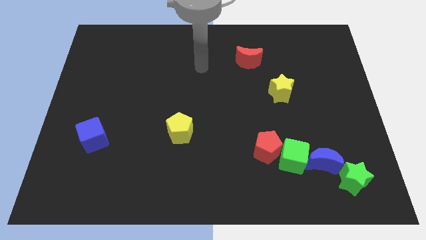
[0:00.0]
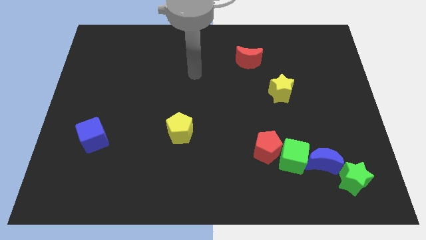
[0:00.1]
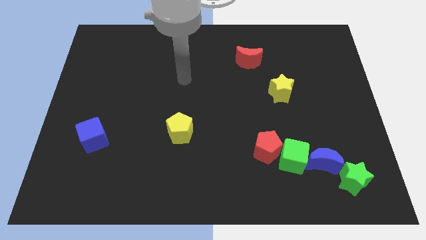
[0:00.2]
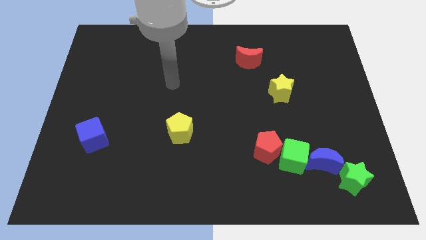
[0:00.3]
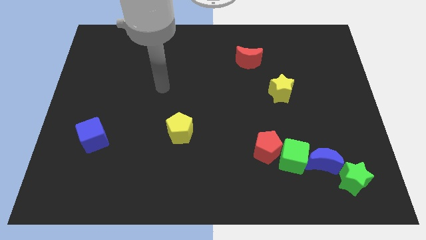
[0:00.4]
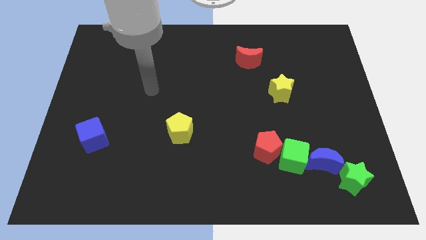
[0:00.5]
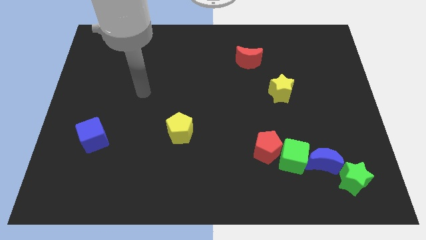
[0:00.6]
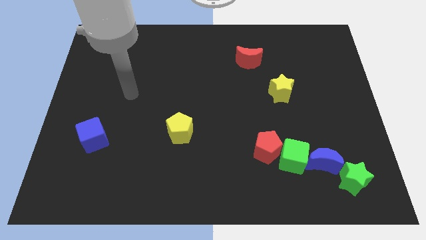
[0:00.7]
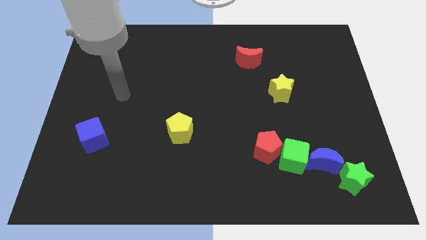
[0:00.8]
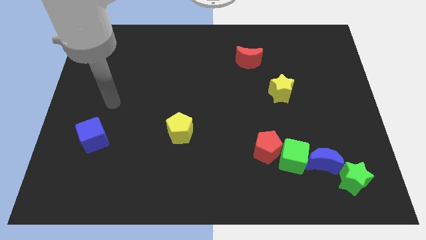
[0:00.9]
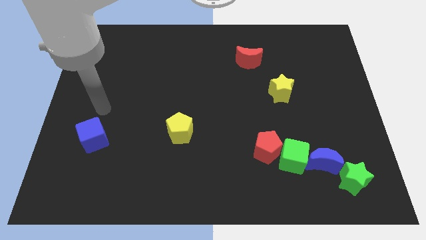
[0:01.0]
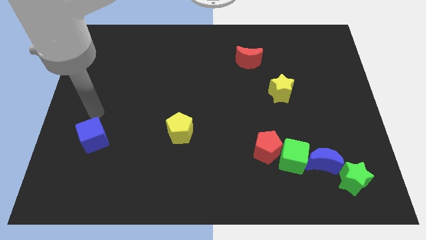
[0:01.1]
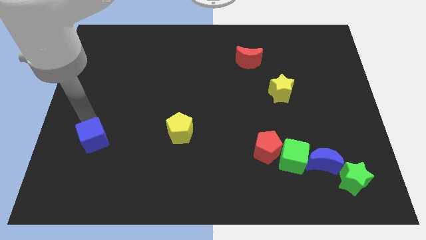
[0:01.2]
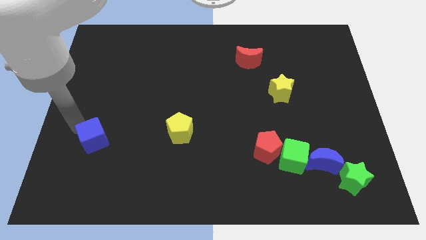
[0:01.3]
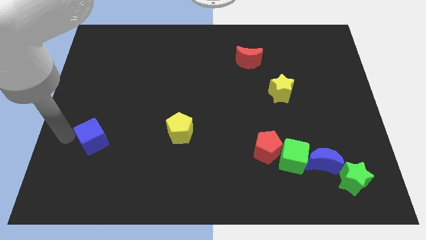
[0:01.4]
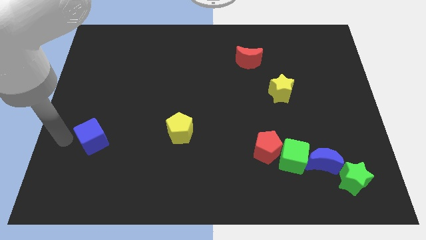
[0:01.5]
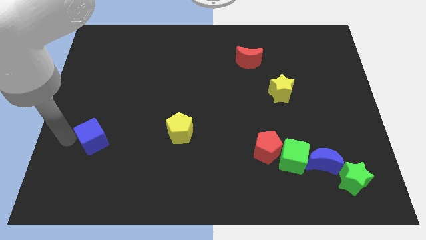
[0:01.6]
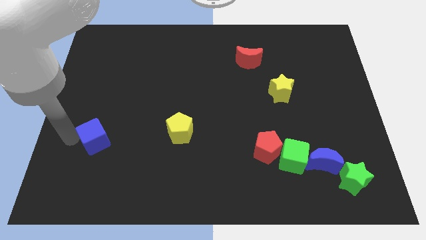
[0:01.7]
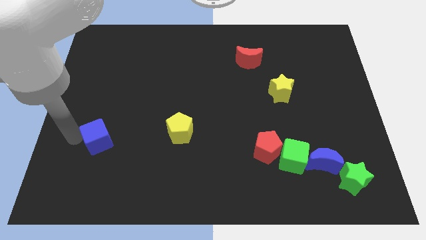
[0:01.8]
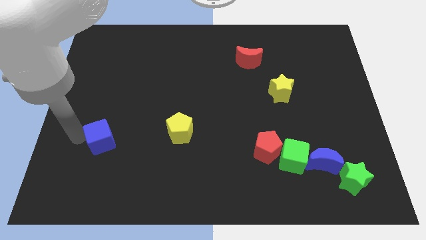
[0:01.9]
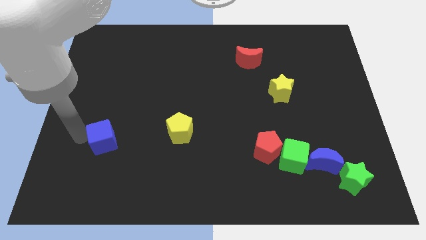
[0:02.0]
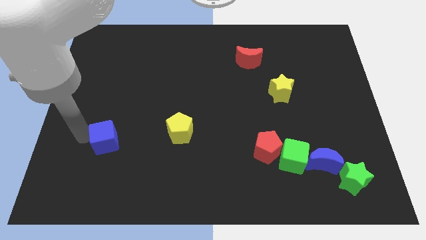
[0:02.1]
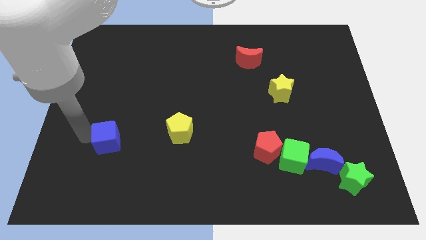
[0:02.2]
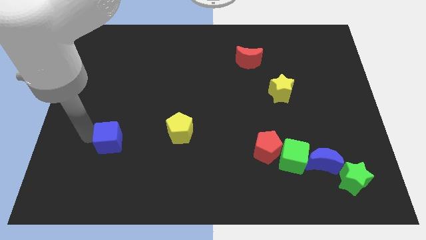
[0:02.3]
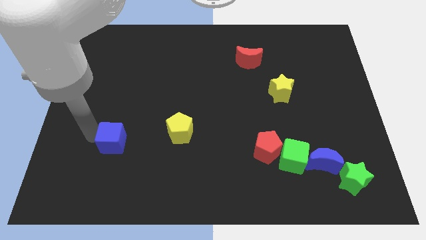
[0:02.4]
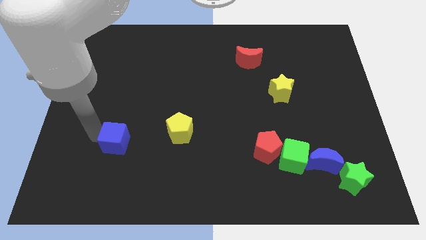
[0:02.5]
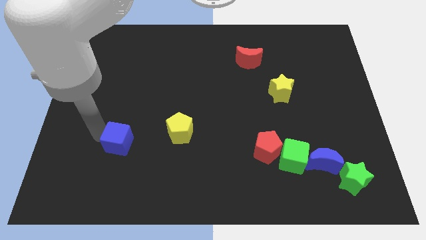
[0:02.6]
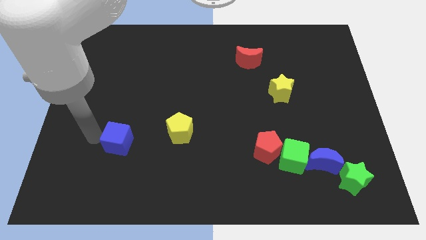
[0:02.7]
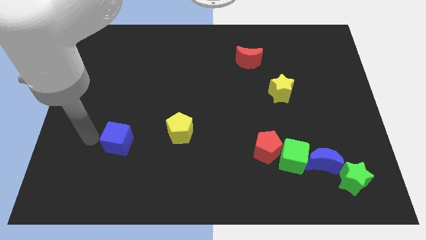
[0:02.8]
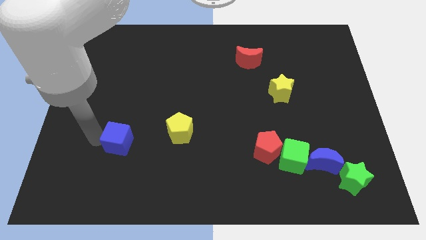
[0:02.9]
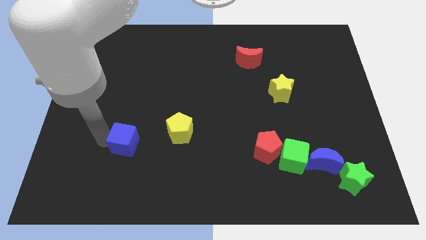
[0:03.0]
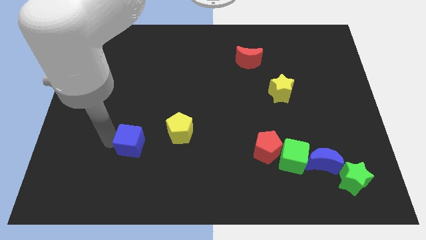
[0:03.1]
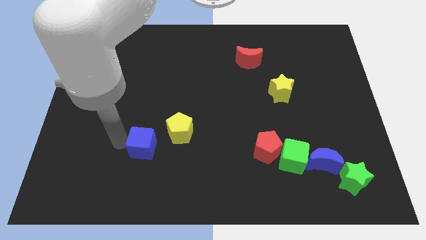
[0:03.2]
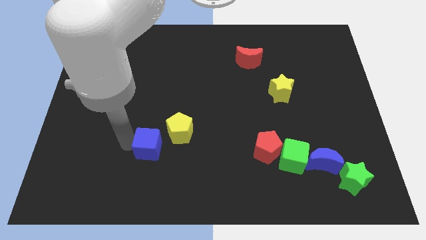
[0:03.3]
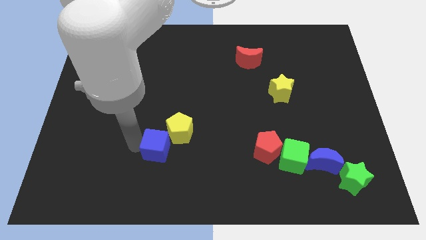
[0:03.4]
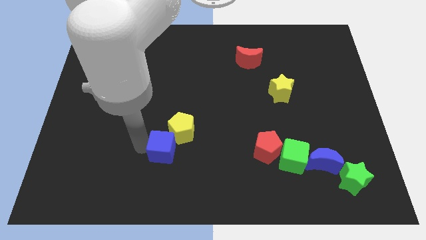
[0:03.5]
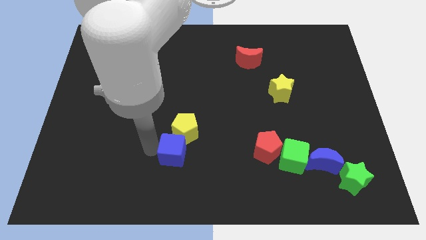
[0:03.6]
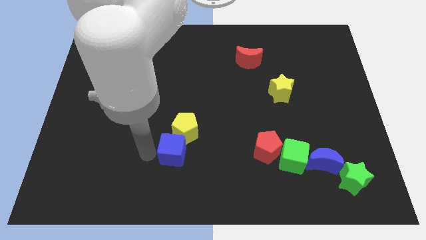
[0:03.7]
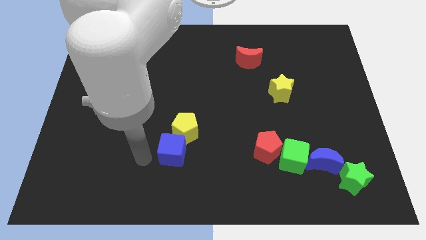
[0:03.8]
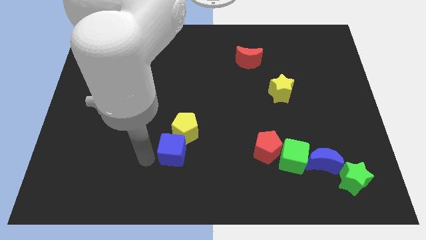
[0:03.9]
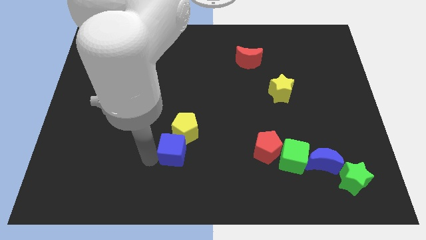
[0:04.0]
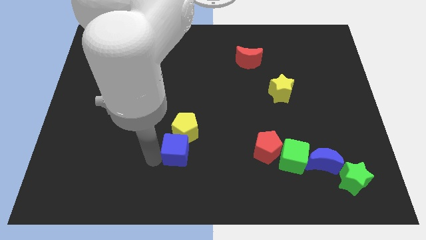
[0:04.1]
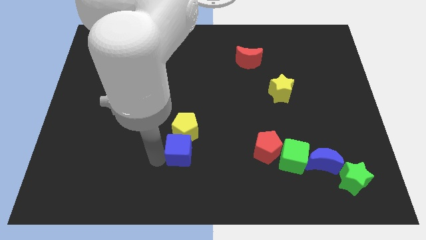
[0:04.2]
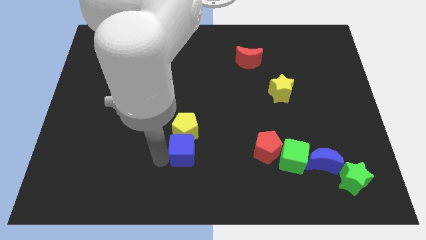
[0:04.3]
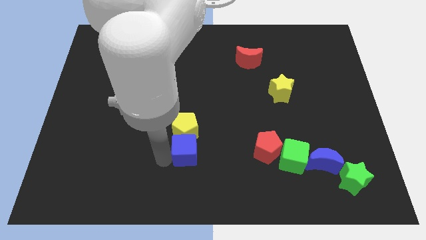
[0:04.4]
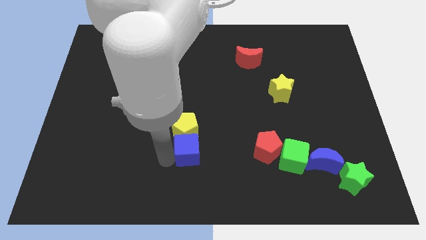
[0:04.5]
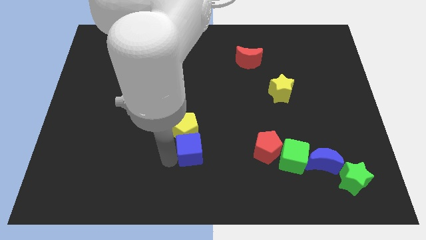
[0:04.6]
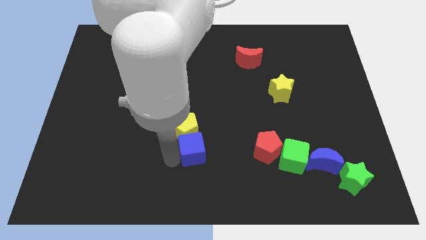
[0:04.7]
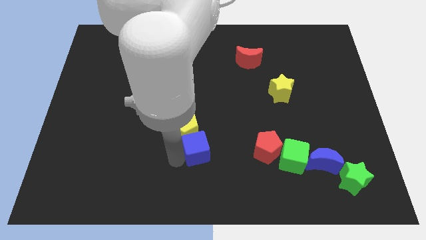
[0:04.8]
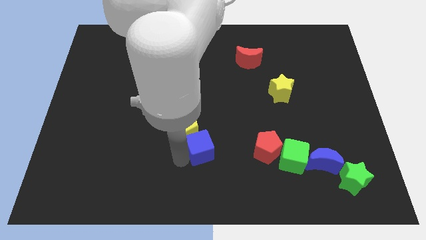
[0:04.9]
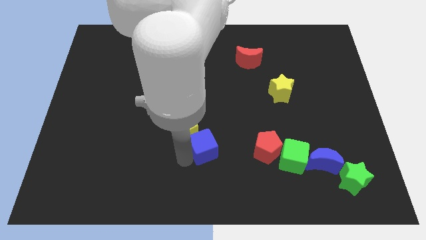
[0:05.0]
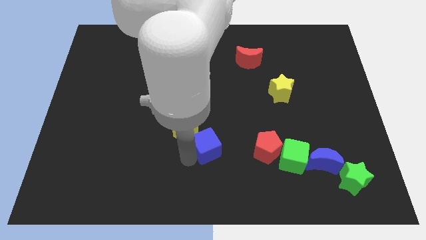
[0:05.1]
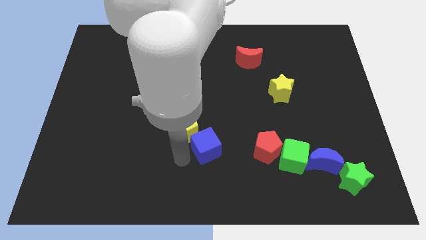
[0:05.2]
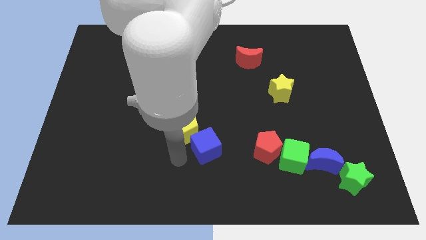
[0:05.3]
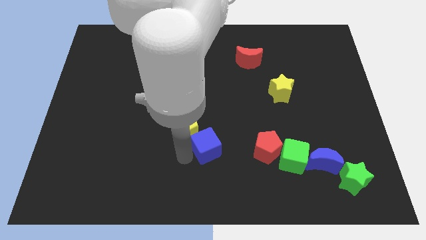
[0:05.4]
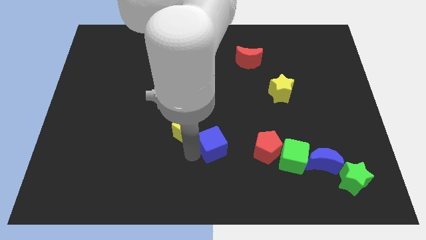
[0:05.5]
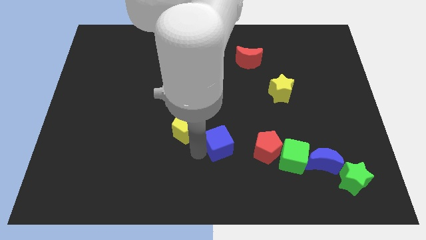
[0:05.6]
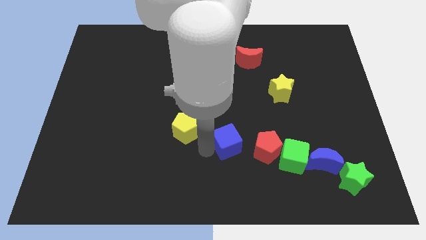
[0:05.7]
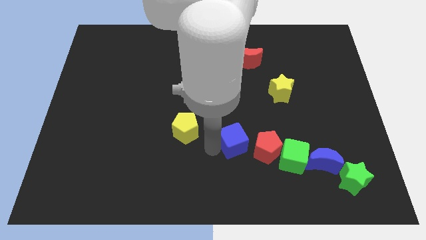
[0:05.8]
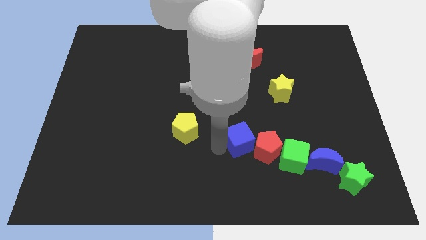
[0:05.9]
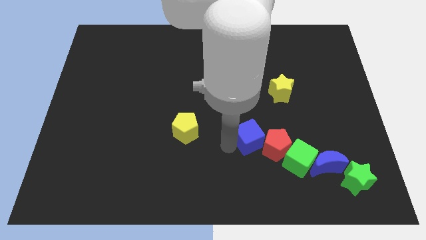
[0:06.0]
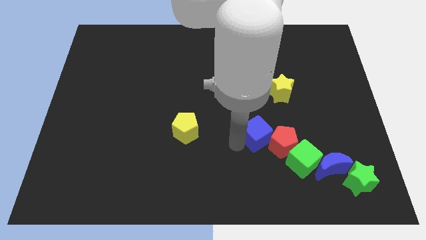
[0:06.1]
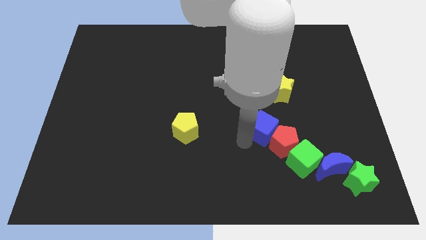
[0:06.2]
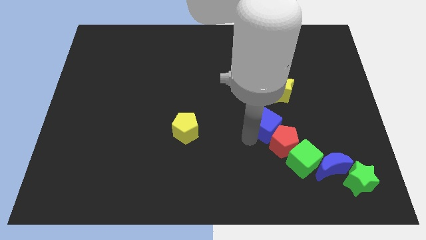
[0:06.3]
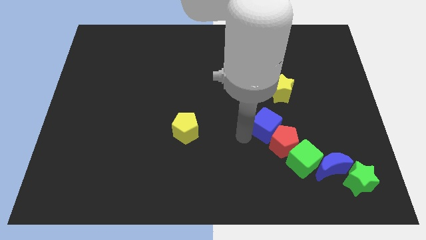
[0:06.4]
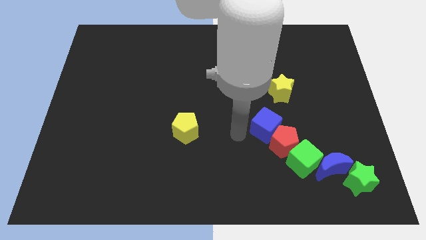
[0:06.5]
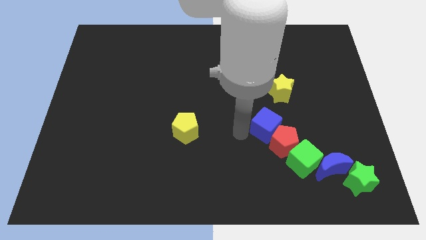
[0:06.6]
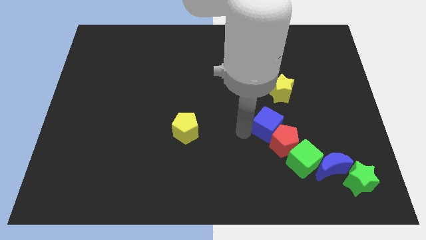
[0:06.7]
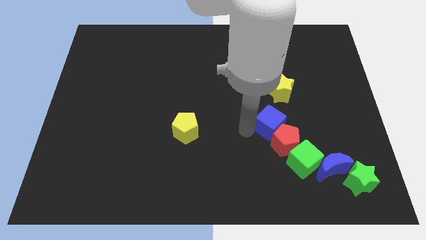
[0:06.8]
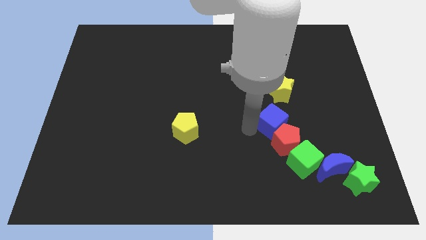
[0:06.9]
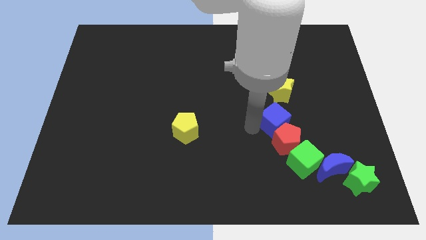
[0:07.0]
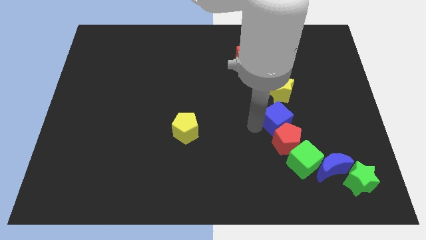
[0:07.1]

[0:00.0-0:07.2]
slide the blue cube above the green cube

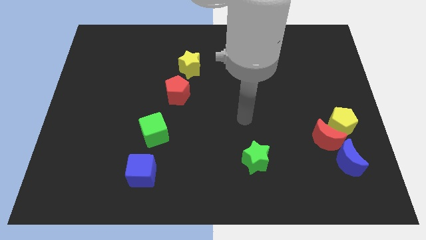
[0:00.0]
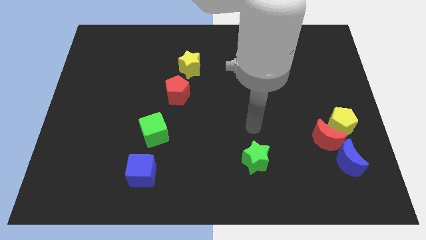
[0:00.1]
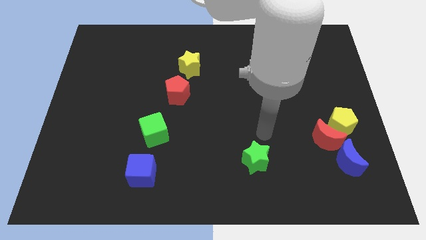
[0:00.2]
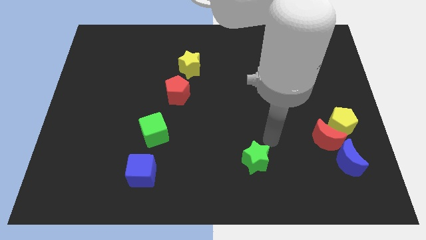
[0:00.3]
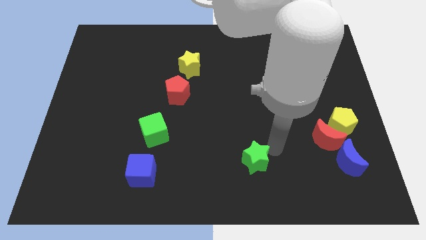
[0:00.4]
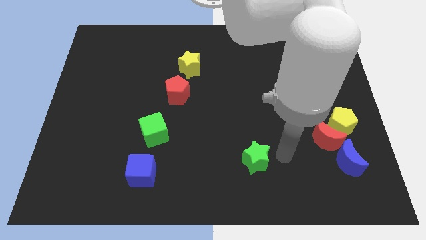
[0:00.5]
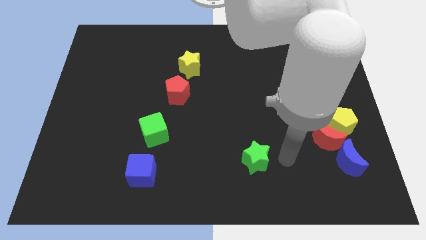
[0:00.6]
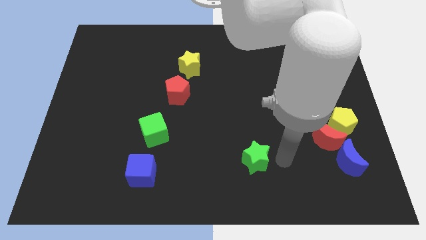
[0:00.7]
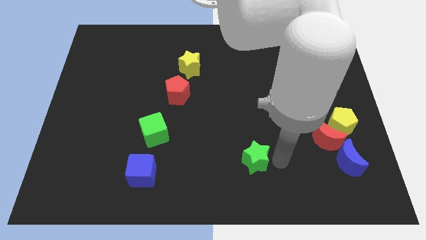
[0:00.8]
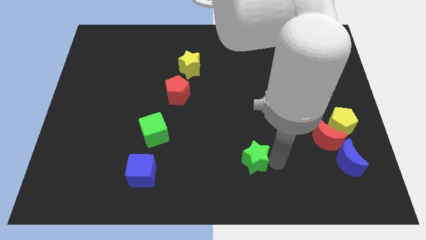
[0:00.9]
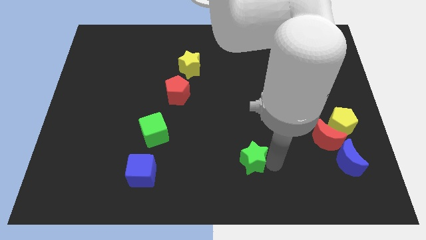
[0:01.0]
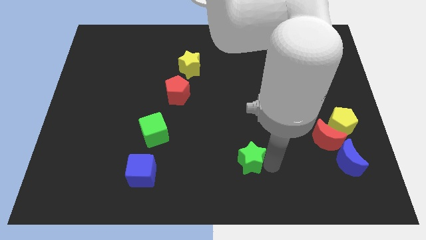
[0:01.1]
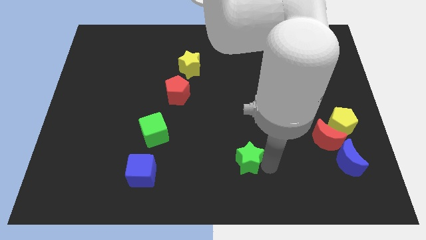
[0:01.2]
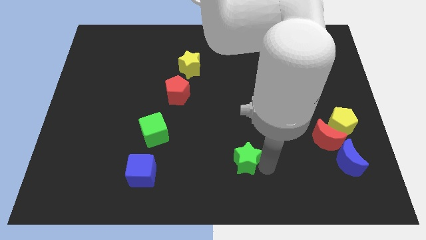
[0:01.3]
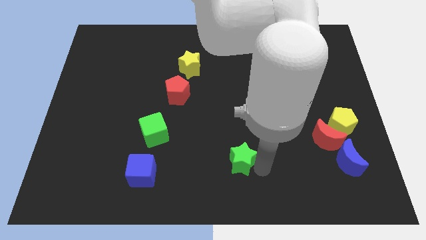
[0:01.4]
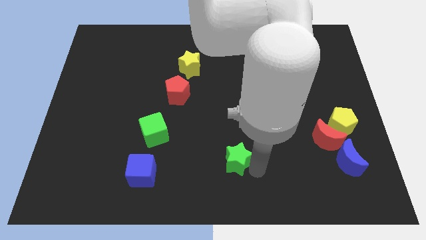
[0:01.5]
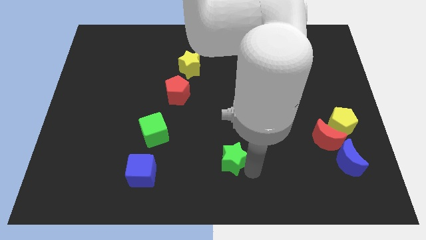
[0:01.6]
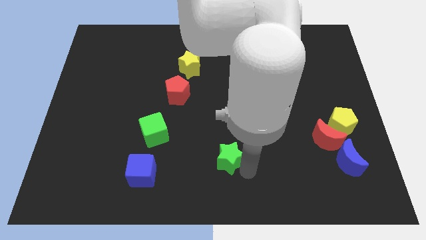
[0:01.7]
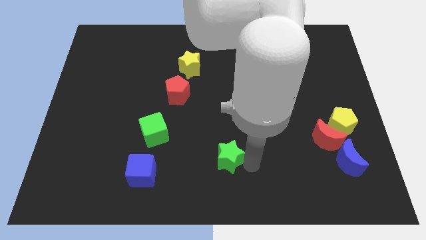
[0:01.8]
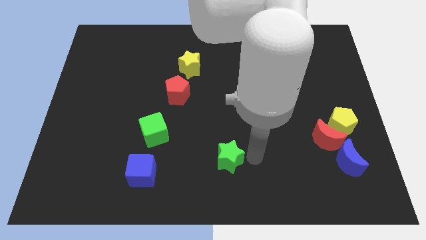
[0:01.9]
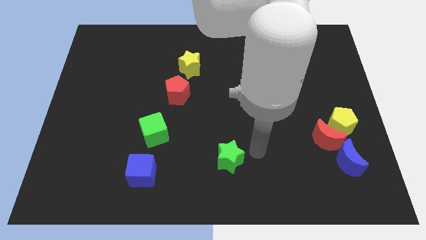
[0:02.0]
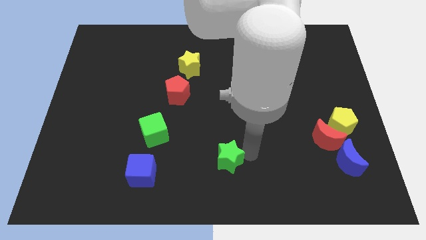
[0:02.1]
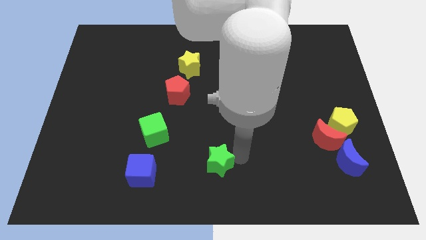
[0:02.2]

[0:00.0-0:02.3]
push the green star to the right of the blue cube
